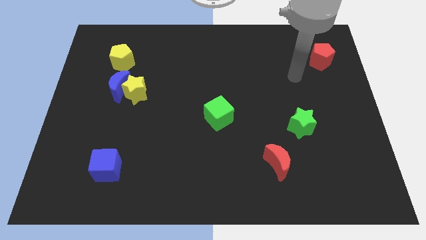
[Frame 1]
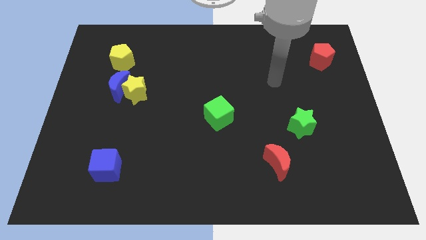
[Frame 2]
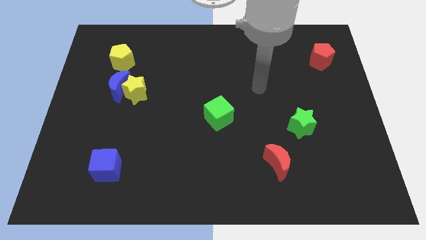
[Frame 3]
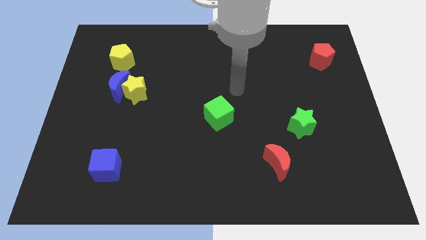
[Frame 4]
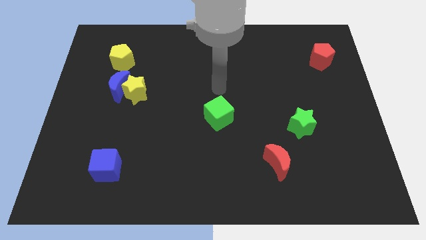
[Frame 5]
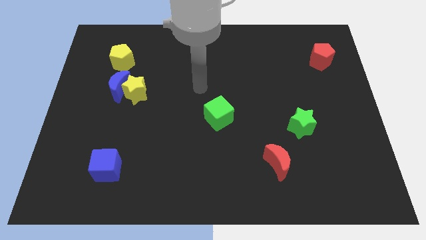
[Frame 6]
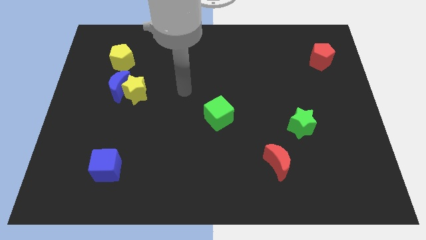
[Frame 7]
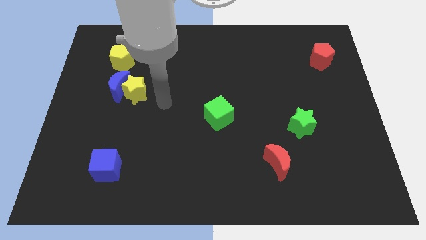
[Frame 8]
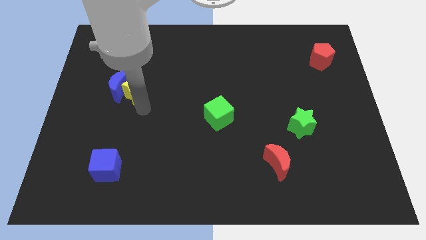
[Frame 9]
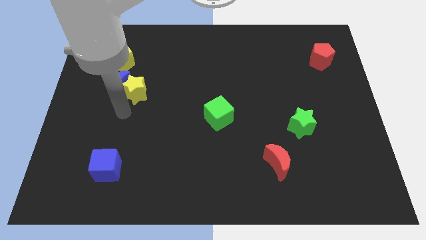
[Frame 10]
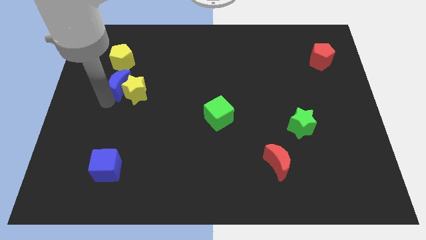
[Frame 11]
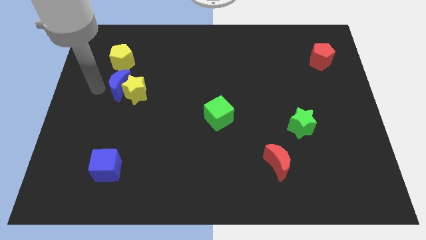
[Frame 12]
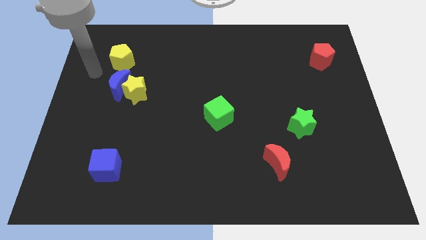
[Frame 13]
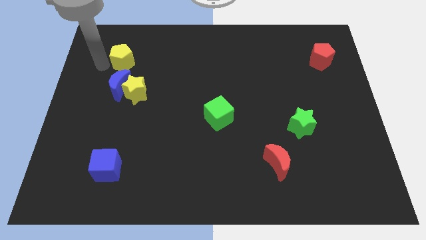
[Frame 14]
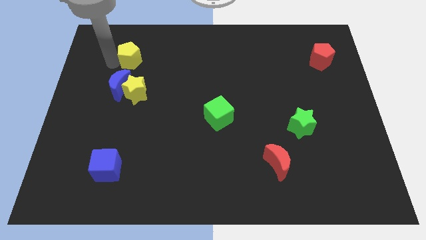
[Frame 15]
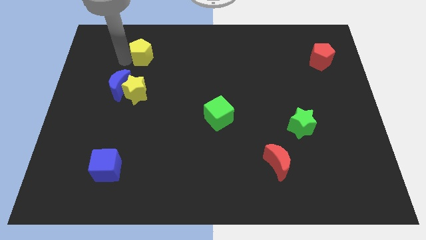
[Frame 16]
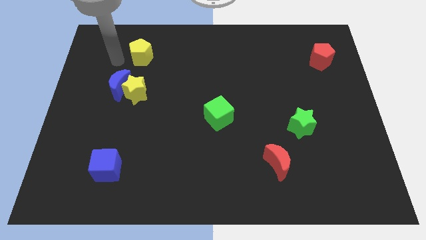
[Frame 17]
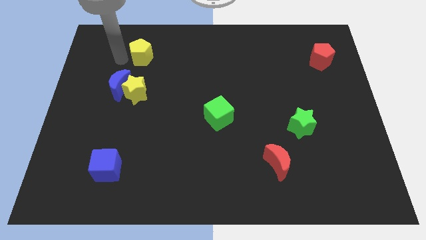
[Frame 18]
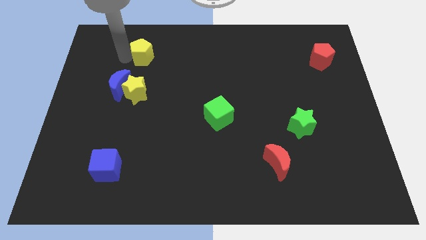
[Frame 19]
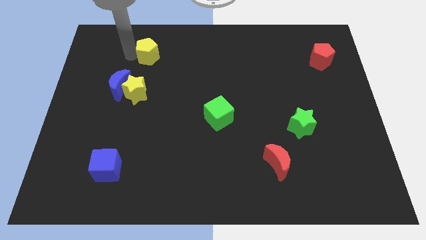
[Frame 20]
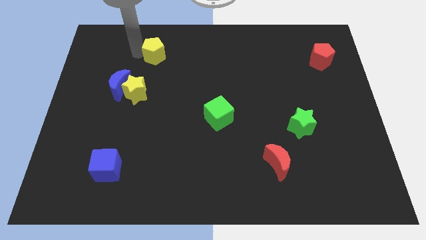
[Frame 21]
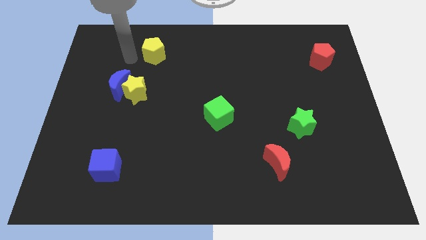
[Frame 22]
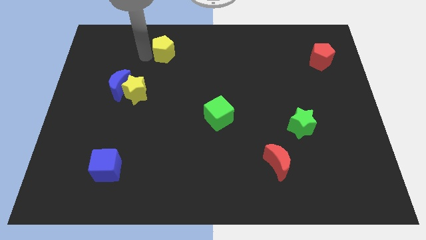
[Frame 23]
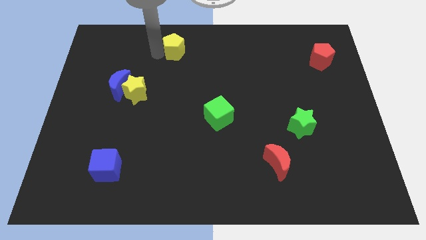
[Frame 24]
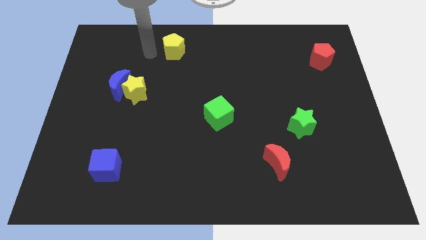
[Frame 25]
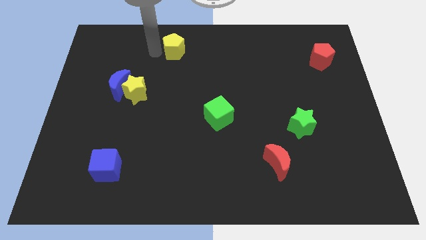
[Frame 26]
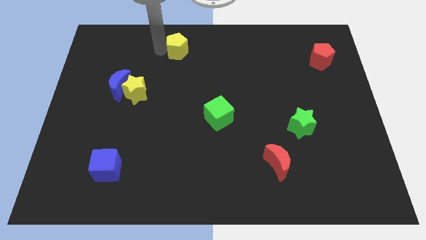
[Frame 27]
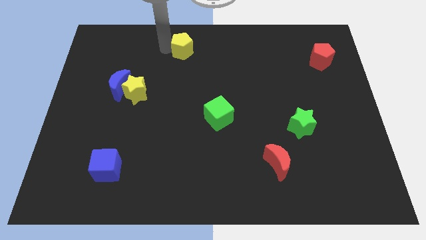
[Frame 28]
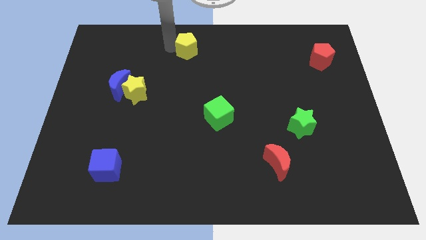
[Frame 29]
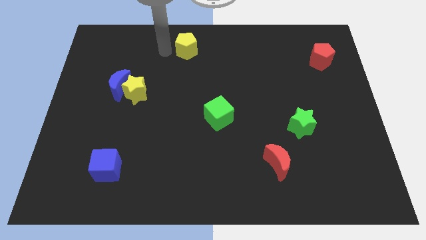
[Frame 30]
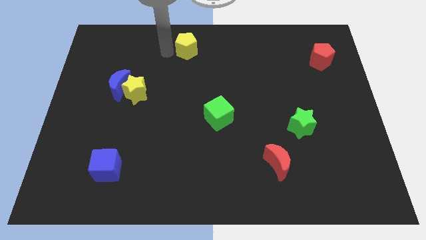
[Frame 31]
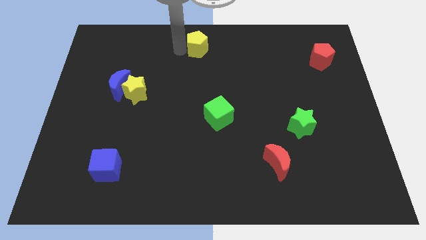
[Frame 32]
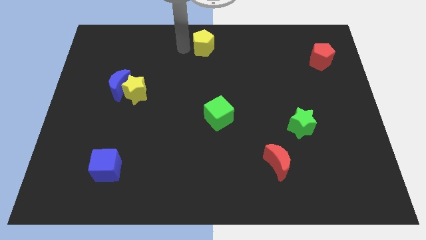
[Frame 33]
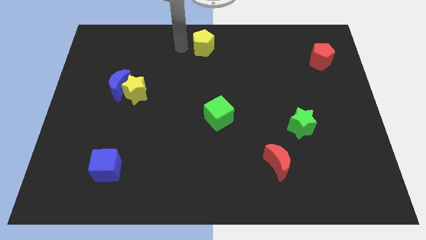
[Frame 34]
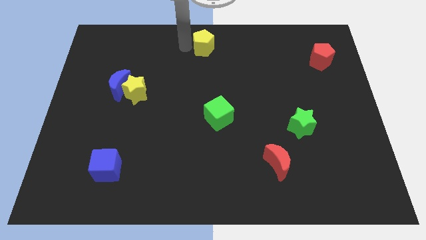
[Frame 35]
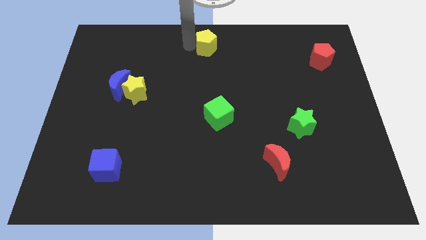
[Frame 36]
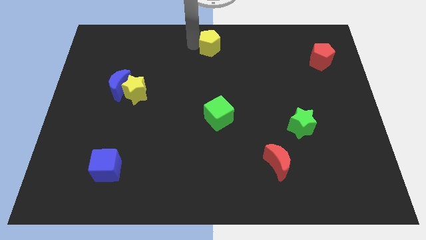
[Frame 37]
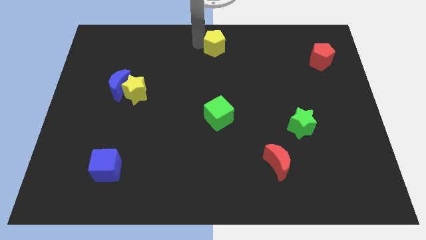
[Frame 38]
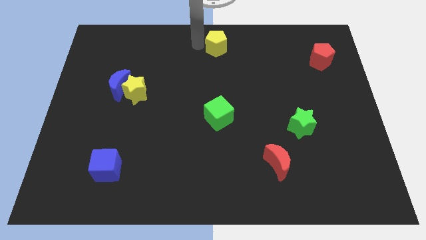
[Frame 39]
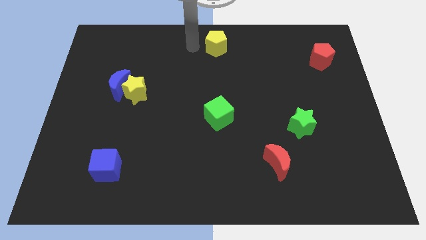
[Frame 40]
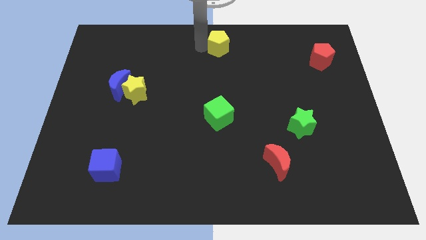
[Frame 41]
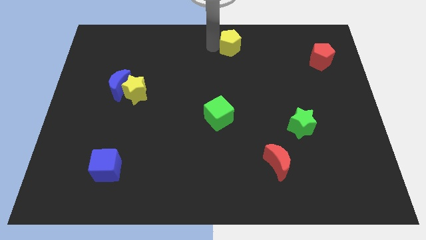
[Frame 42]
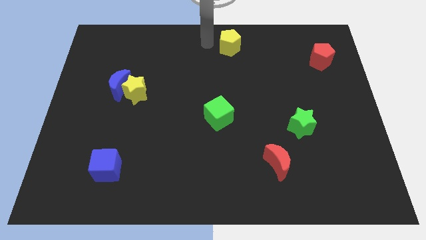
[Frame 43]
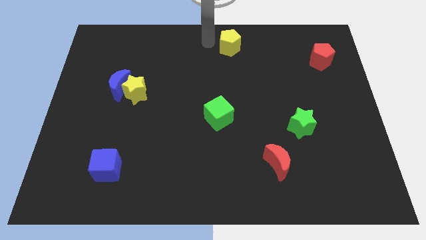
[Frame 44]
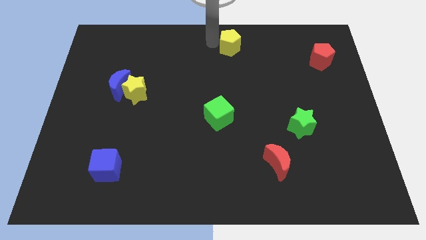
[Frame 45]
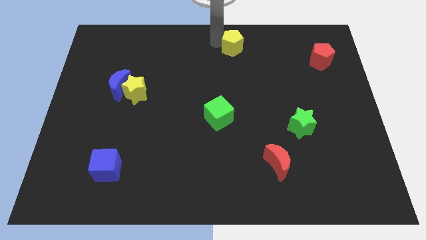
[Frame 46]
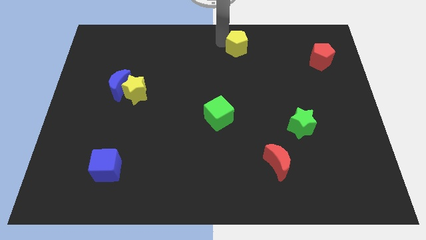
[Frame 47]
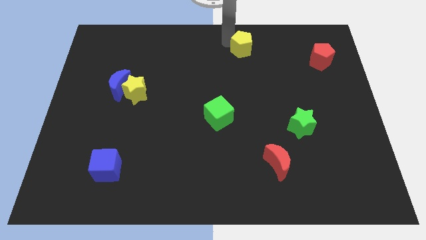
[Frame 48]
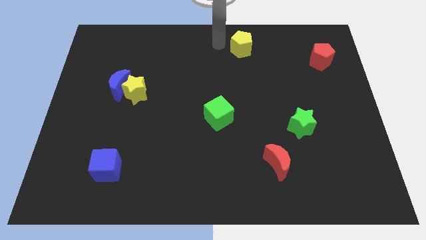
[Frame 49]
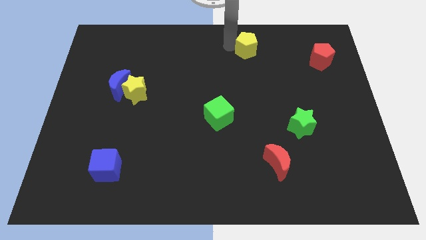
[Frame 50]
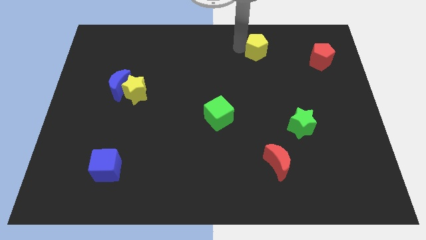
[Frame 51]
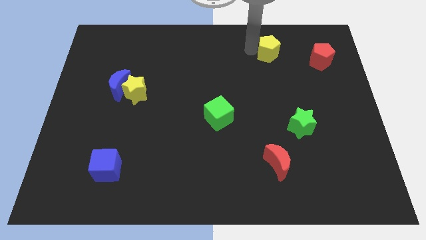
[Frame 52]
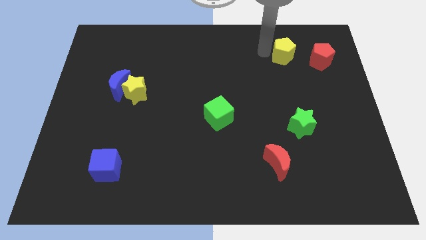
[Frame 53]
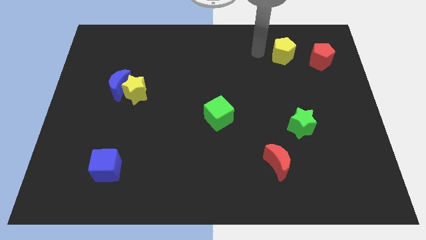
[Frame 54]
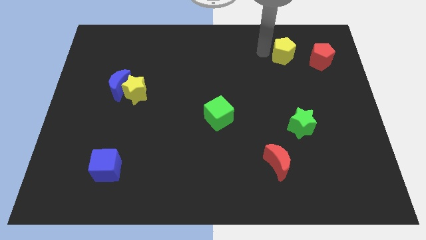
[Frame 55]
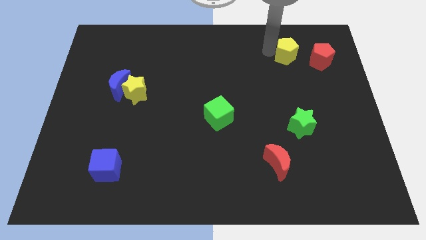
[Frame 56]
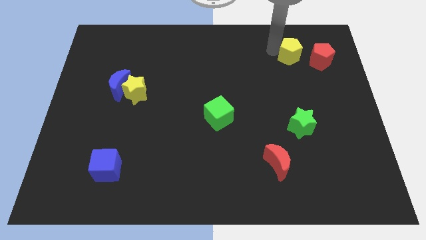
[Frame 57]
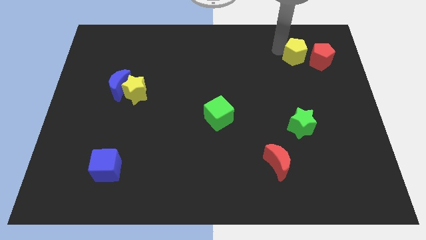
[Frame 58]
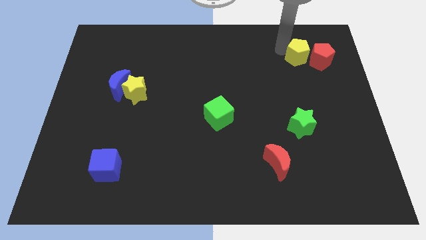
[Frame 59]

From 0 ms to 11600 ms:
move the yellow pentagon towards the red pentagon

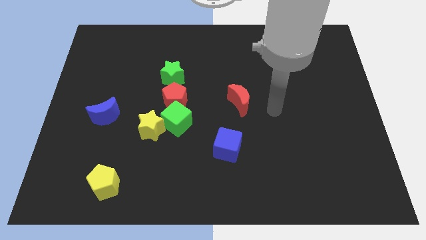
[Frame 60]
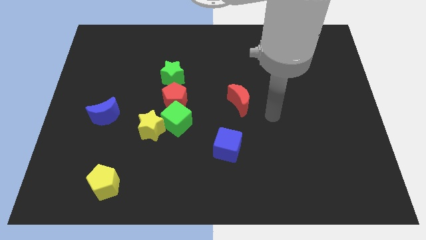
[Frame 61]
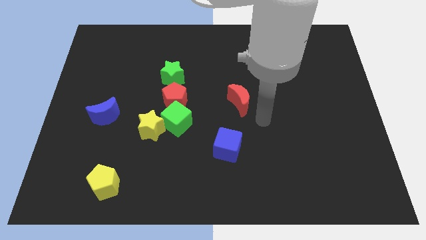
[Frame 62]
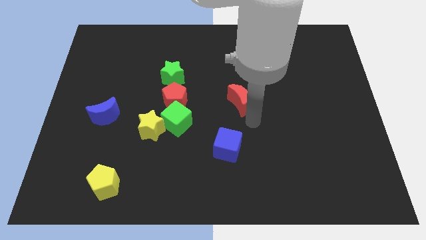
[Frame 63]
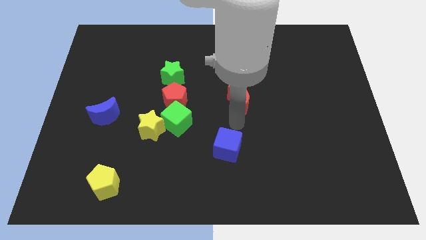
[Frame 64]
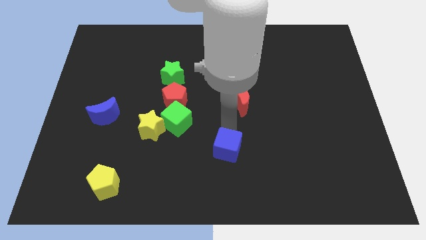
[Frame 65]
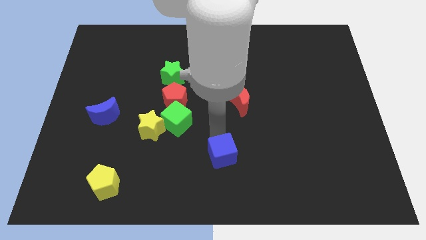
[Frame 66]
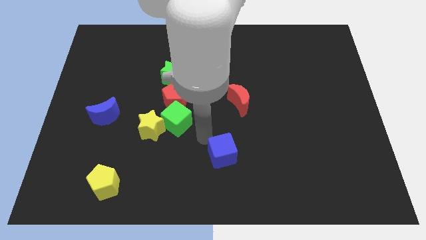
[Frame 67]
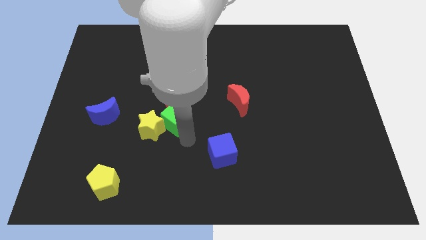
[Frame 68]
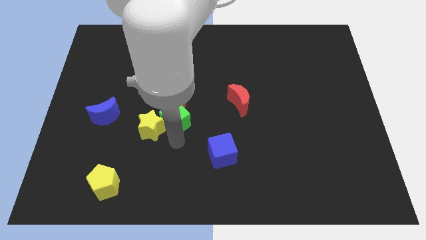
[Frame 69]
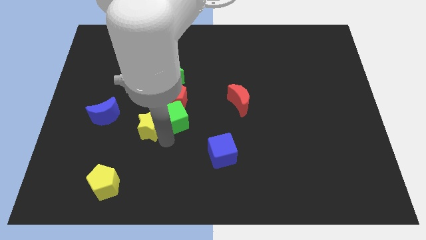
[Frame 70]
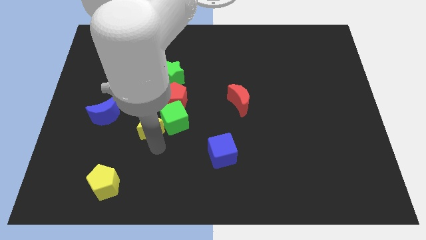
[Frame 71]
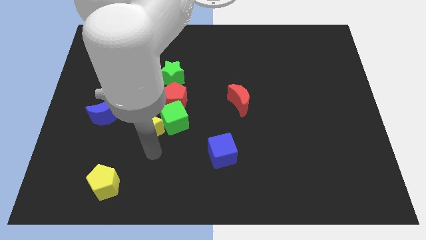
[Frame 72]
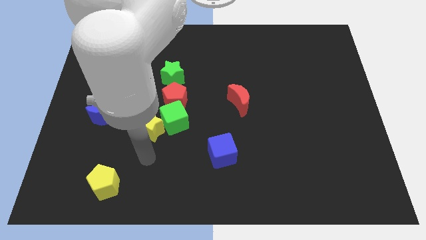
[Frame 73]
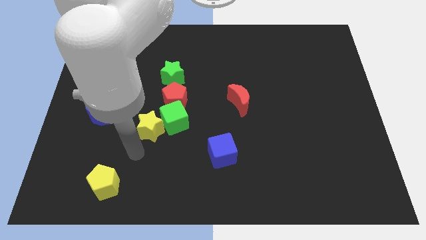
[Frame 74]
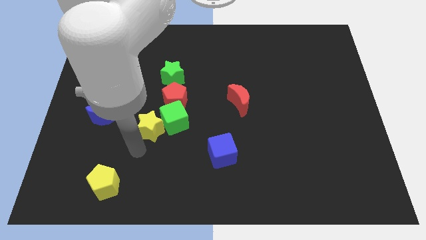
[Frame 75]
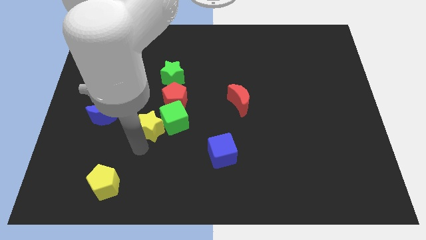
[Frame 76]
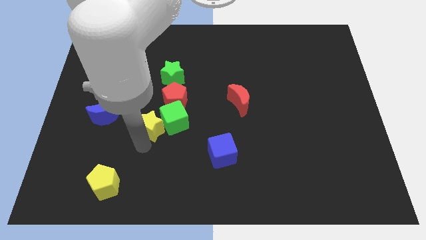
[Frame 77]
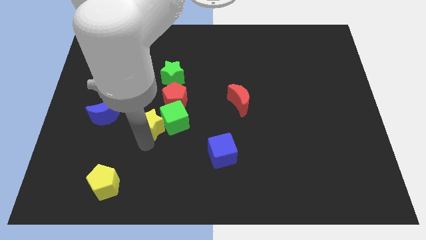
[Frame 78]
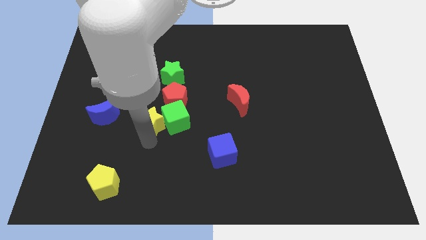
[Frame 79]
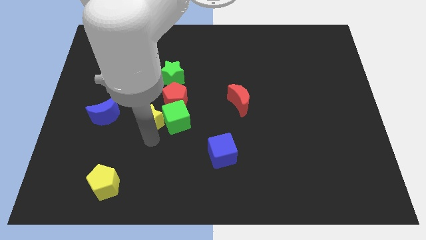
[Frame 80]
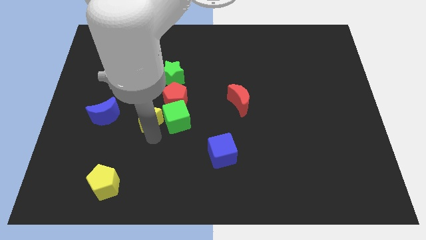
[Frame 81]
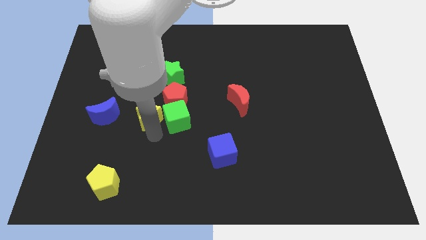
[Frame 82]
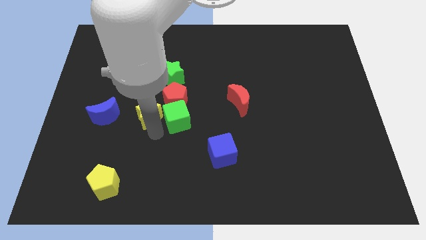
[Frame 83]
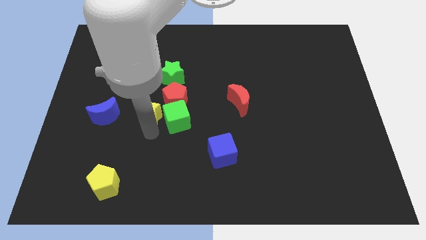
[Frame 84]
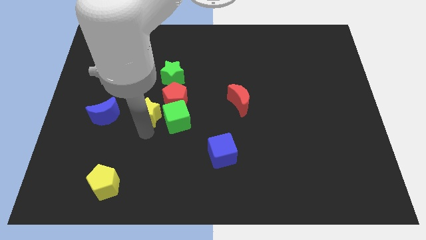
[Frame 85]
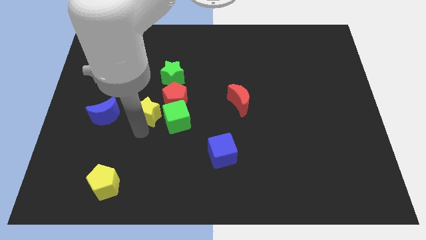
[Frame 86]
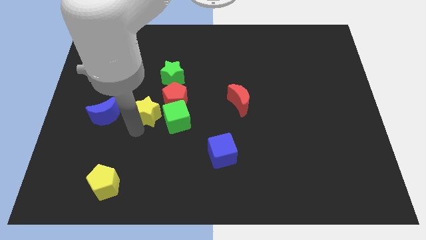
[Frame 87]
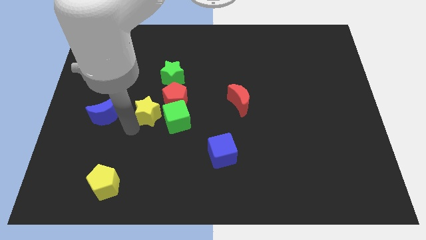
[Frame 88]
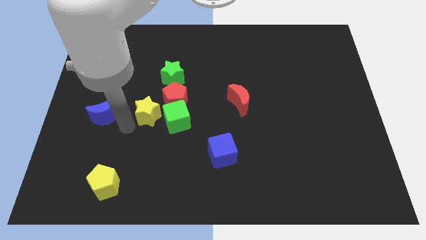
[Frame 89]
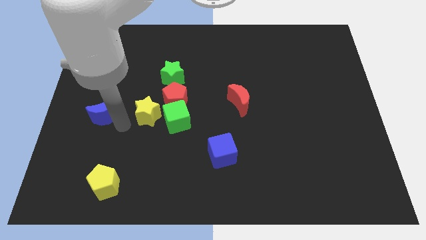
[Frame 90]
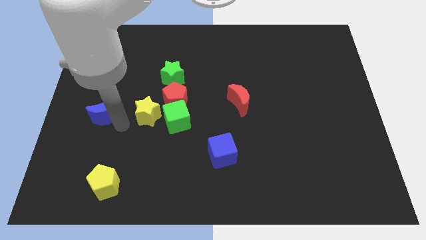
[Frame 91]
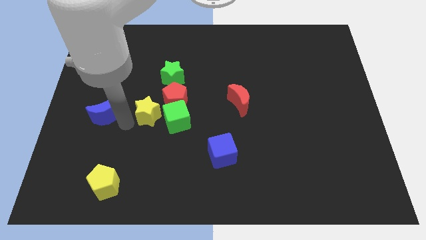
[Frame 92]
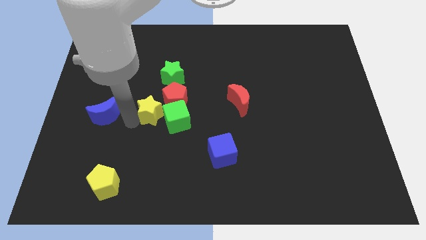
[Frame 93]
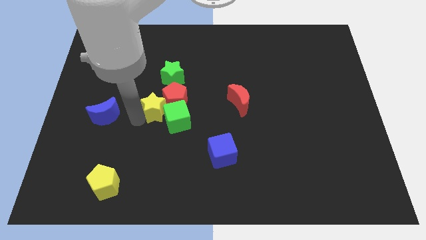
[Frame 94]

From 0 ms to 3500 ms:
put the yellow star towards the red pentagon
